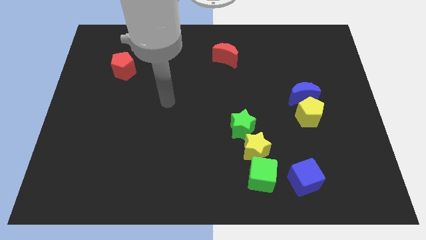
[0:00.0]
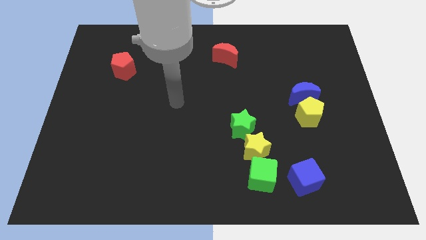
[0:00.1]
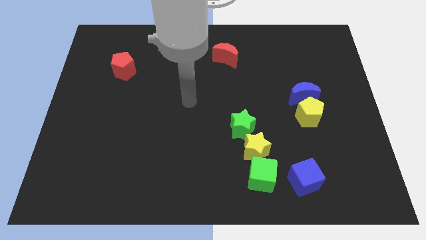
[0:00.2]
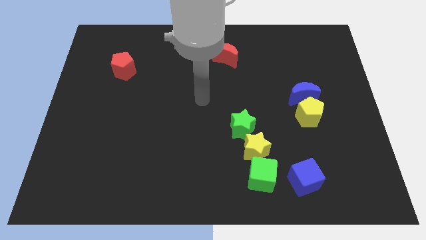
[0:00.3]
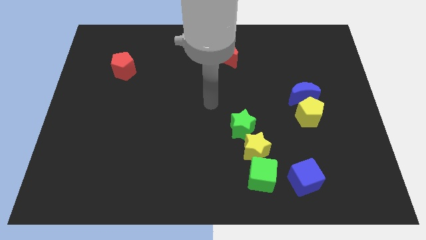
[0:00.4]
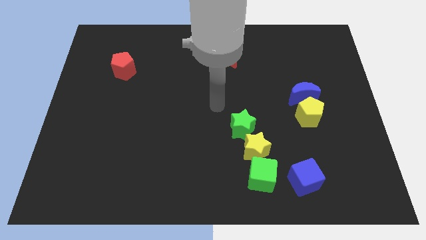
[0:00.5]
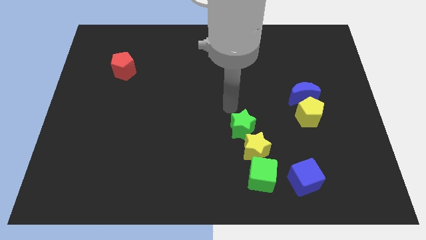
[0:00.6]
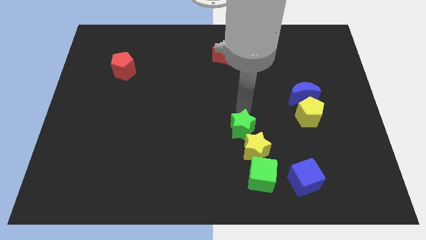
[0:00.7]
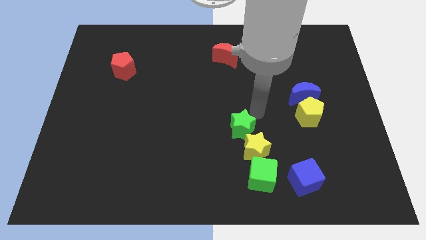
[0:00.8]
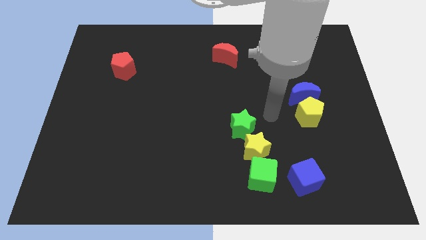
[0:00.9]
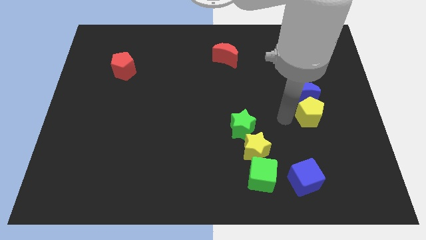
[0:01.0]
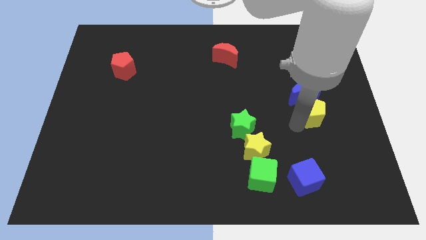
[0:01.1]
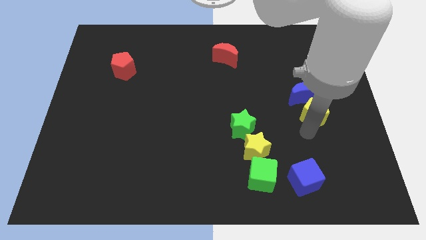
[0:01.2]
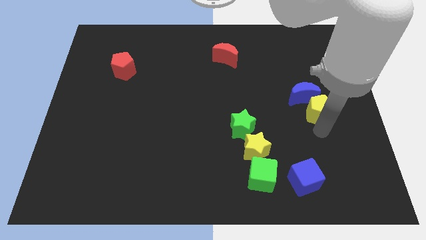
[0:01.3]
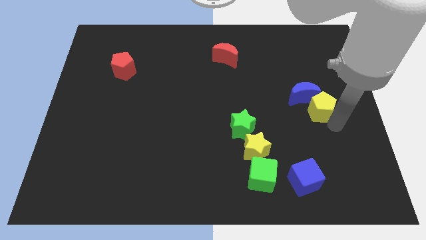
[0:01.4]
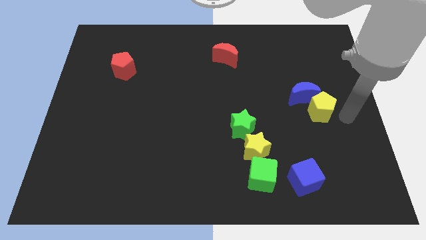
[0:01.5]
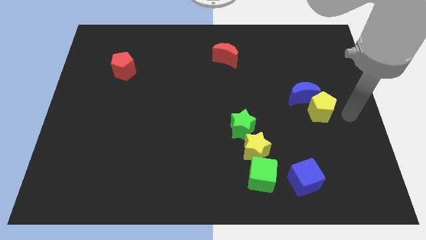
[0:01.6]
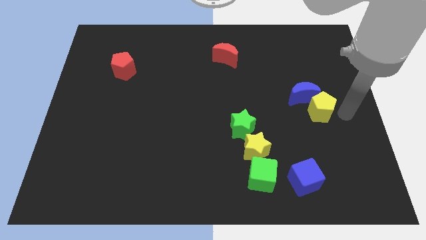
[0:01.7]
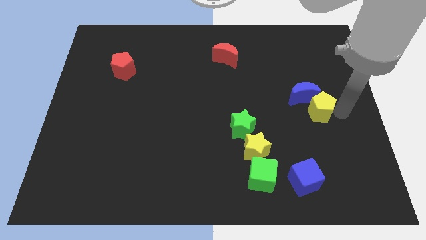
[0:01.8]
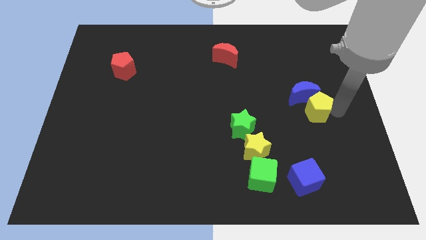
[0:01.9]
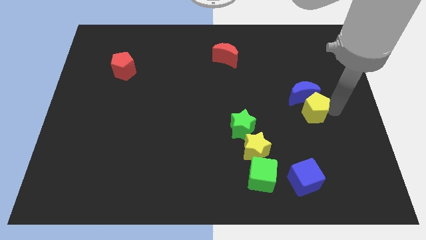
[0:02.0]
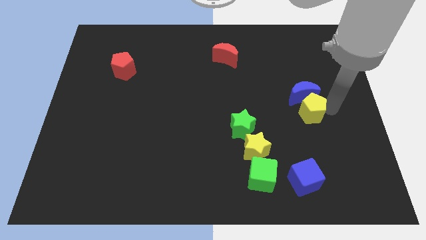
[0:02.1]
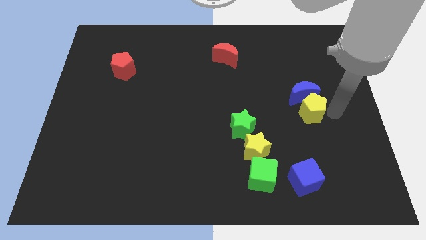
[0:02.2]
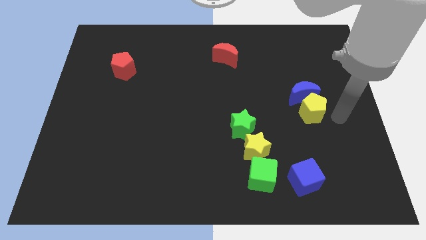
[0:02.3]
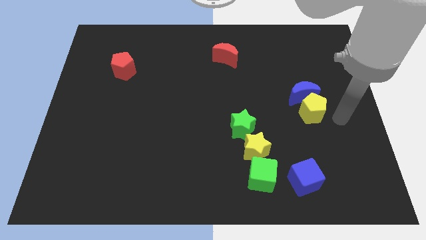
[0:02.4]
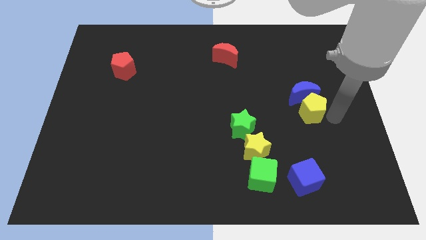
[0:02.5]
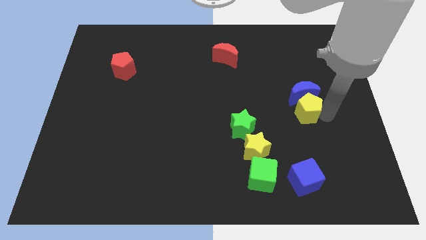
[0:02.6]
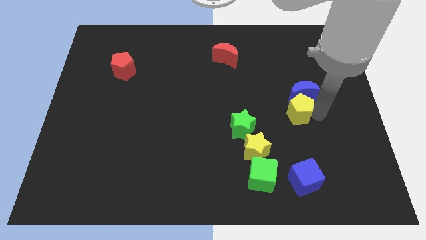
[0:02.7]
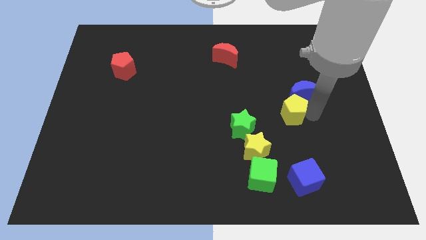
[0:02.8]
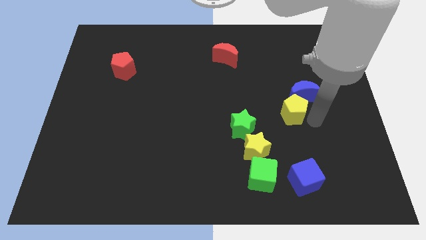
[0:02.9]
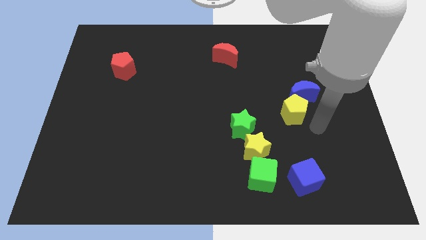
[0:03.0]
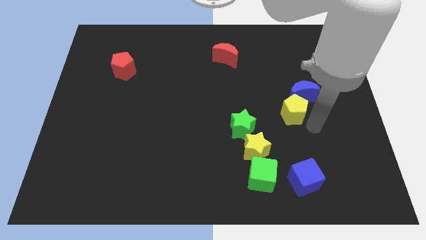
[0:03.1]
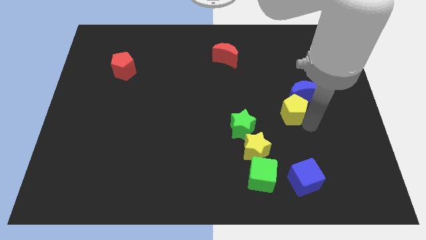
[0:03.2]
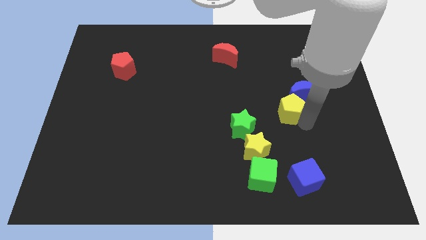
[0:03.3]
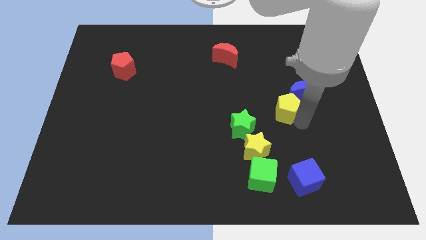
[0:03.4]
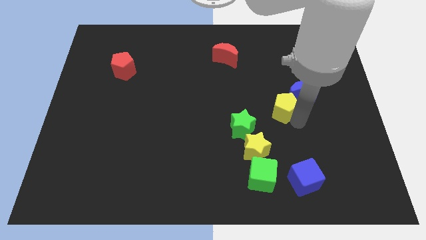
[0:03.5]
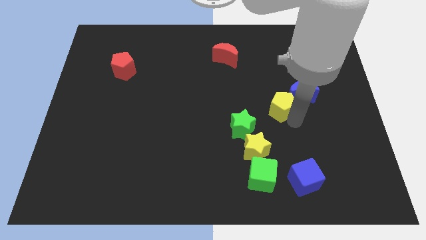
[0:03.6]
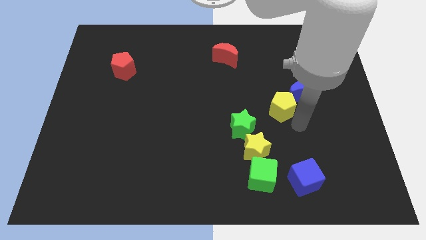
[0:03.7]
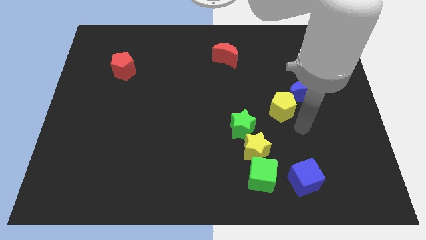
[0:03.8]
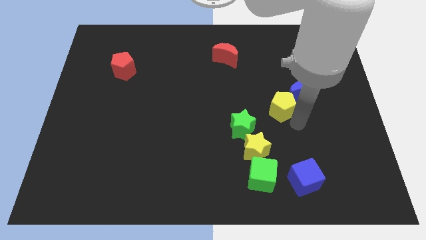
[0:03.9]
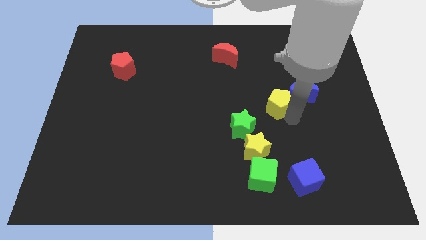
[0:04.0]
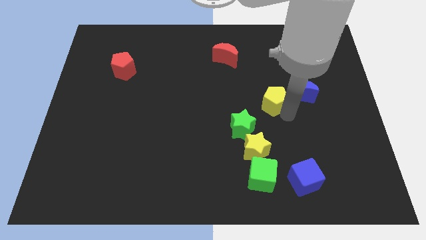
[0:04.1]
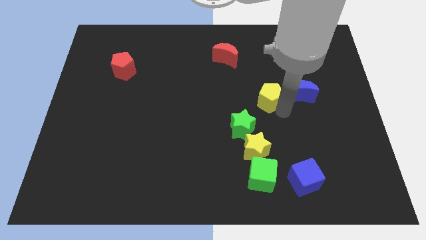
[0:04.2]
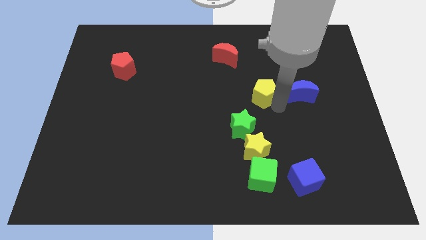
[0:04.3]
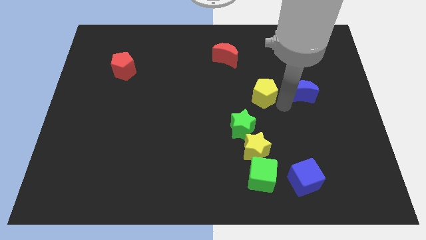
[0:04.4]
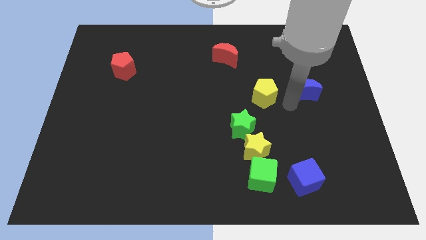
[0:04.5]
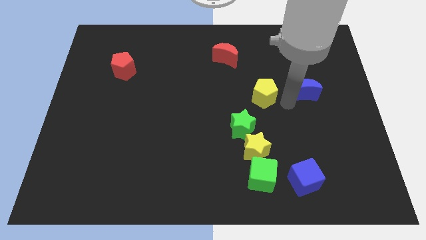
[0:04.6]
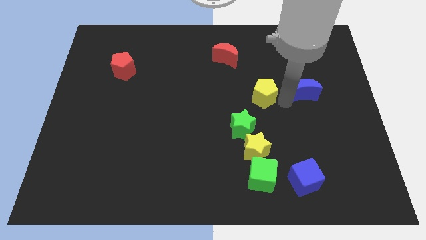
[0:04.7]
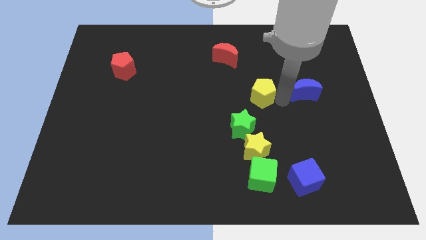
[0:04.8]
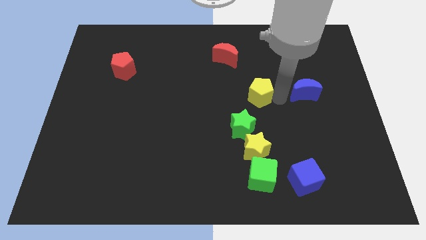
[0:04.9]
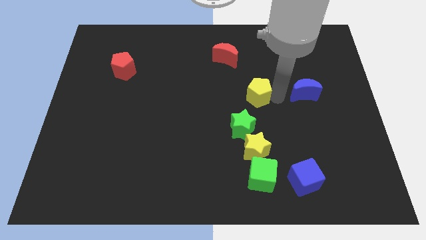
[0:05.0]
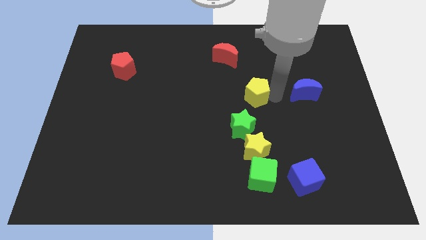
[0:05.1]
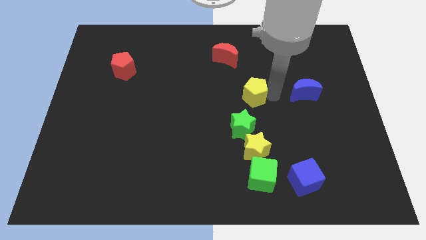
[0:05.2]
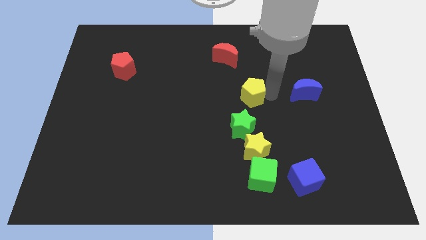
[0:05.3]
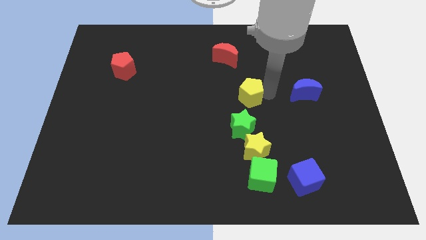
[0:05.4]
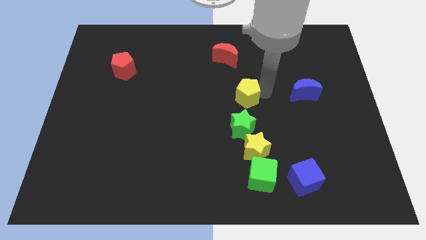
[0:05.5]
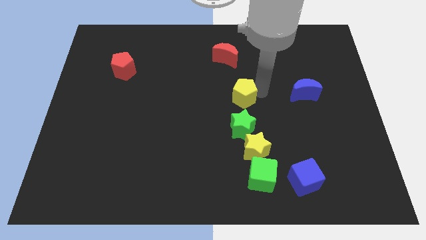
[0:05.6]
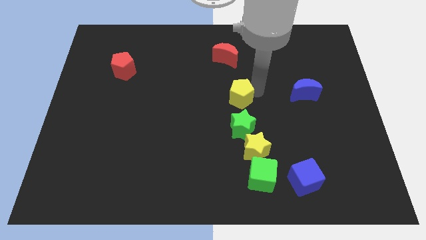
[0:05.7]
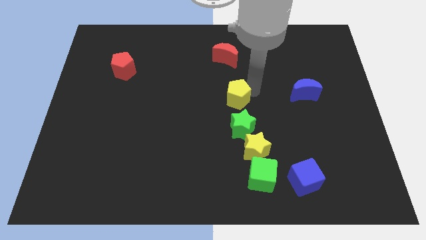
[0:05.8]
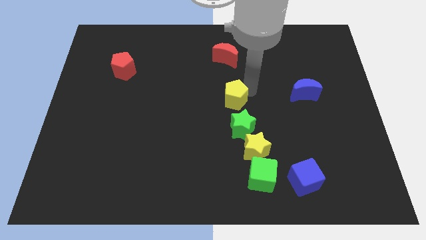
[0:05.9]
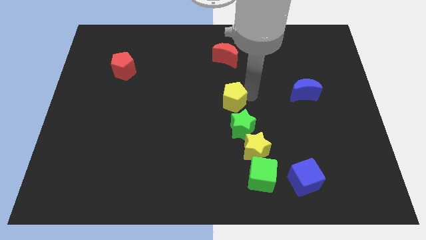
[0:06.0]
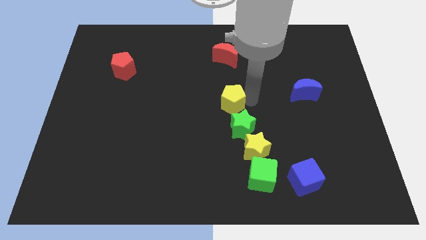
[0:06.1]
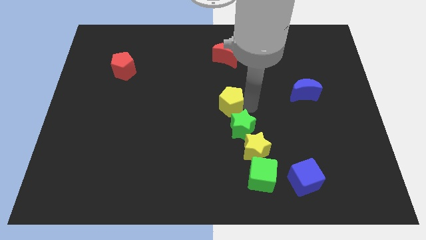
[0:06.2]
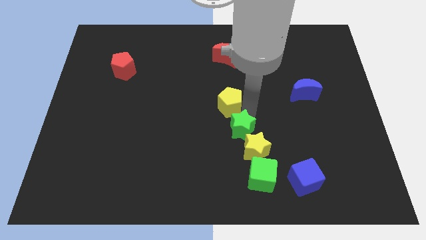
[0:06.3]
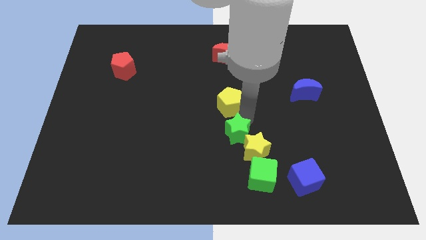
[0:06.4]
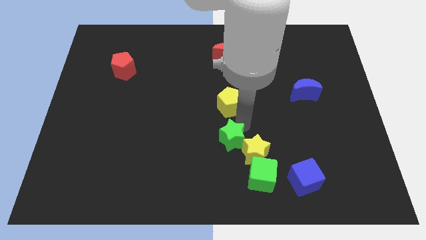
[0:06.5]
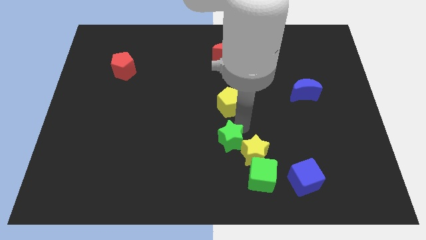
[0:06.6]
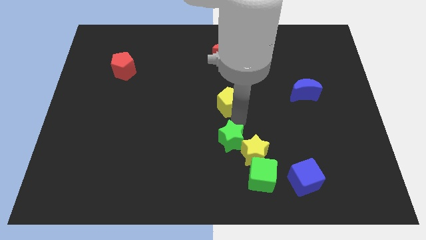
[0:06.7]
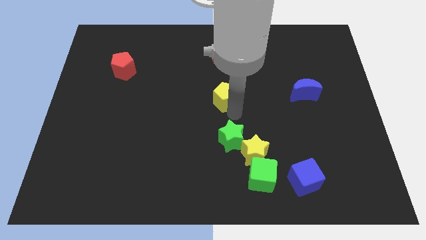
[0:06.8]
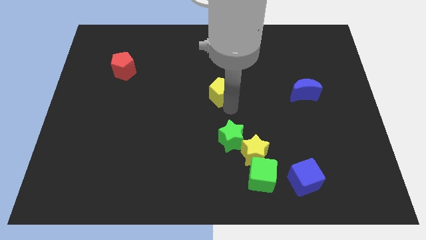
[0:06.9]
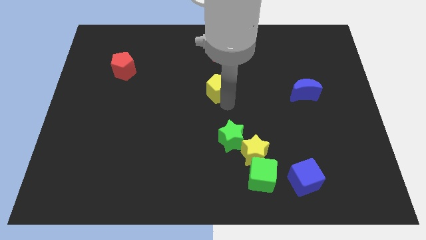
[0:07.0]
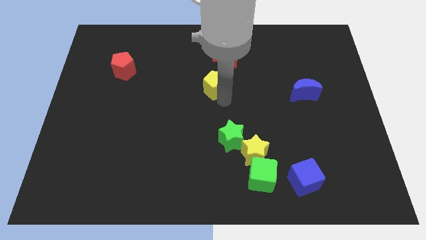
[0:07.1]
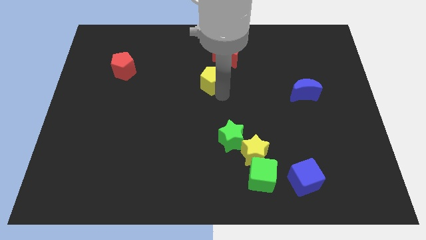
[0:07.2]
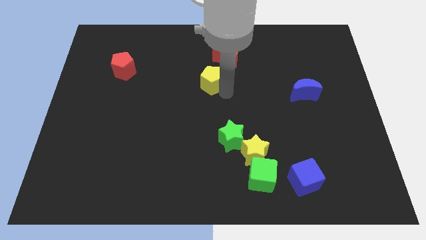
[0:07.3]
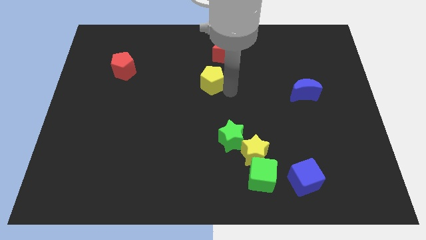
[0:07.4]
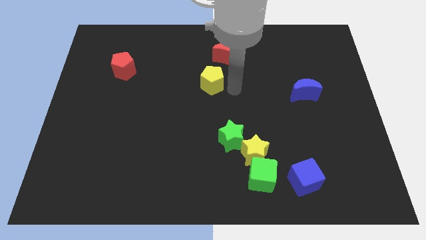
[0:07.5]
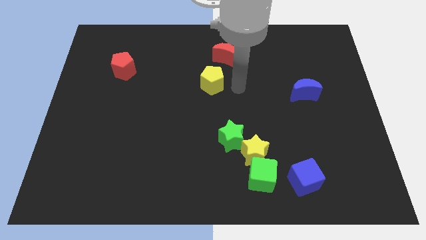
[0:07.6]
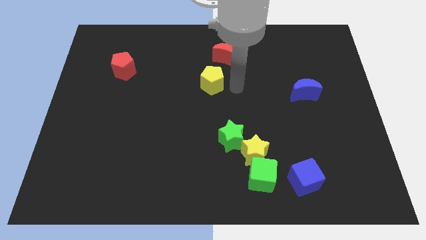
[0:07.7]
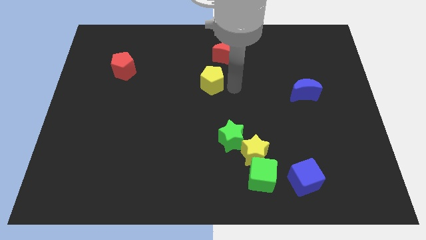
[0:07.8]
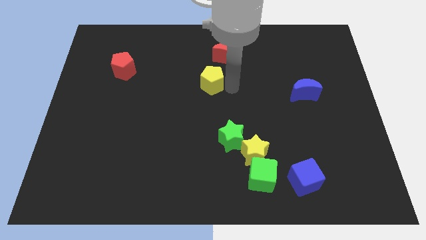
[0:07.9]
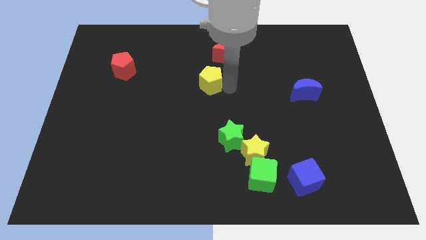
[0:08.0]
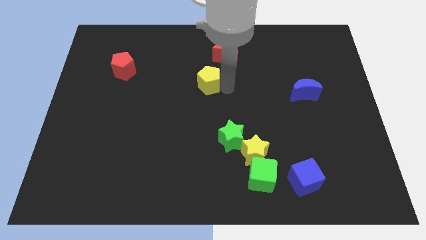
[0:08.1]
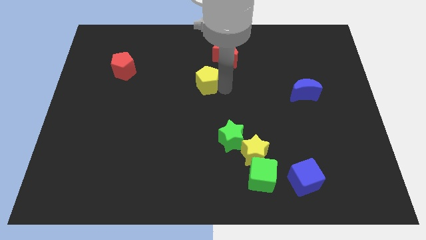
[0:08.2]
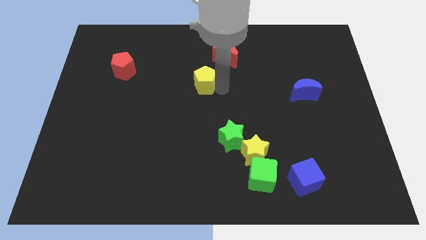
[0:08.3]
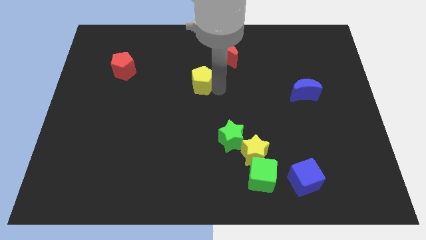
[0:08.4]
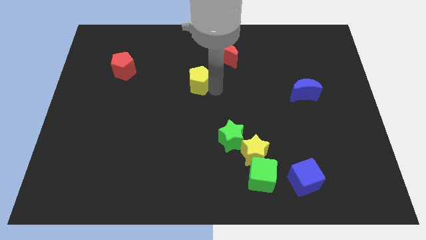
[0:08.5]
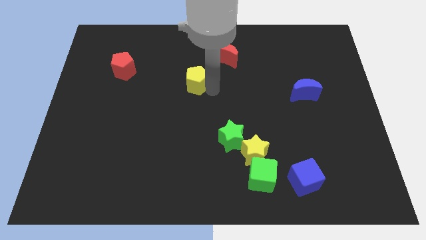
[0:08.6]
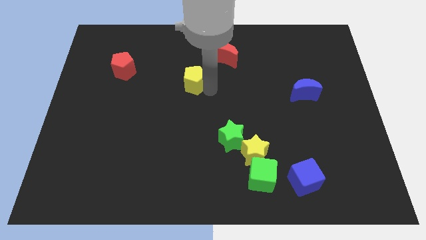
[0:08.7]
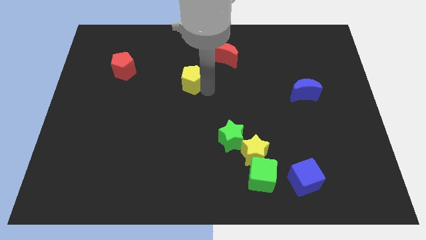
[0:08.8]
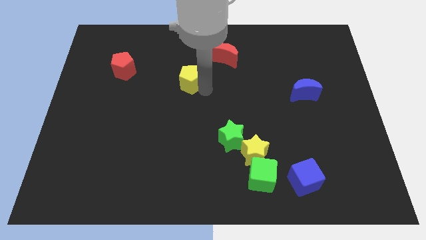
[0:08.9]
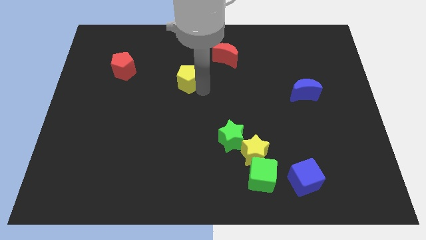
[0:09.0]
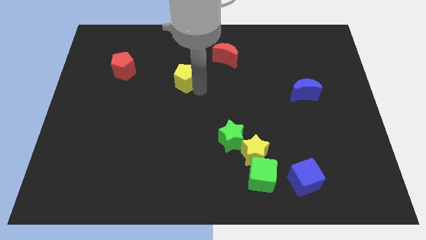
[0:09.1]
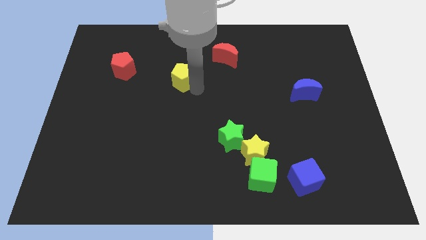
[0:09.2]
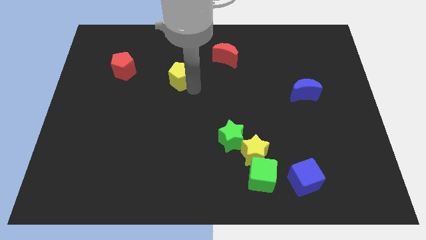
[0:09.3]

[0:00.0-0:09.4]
move the yellow pentagon to the right side of the red pentagon
